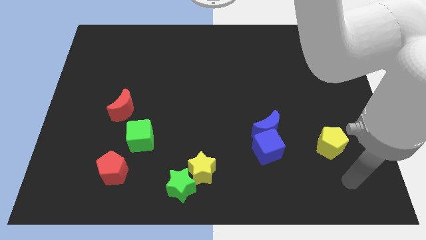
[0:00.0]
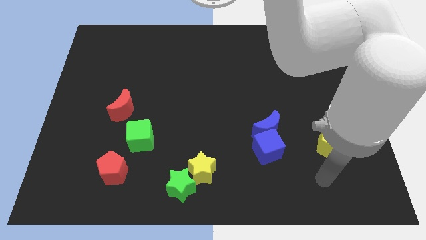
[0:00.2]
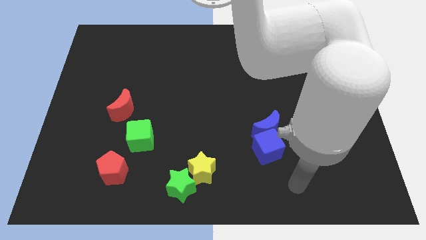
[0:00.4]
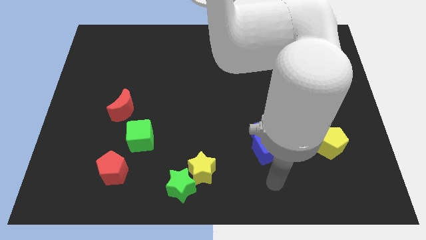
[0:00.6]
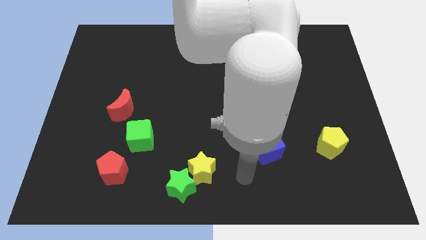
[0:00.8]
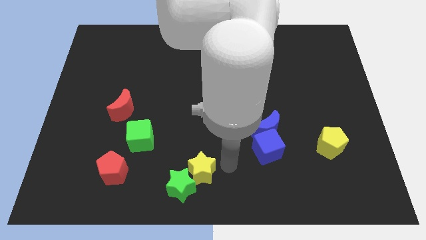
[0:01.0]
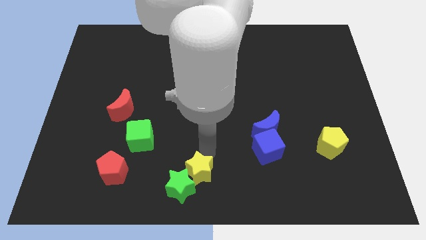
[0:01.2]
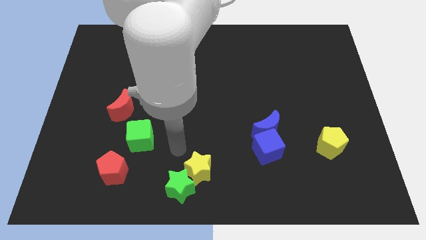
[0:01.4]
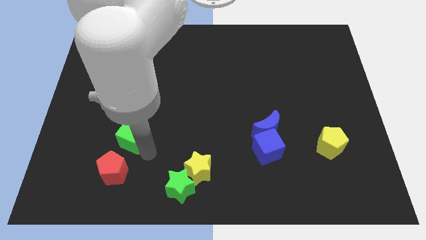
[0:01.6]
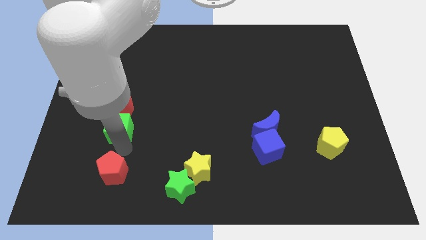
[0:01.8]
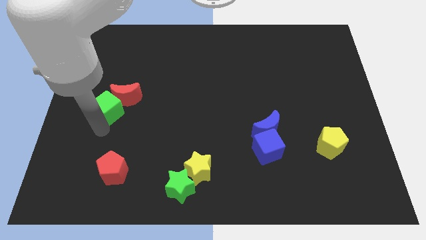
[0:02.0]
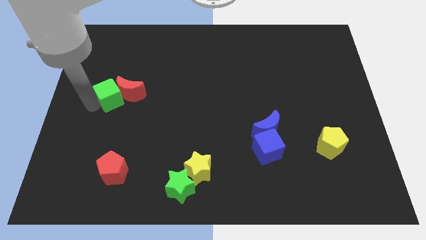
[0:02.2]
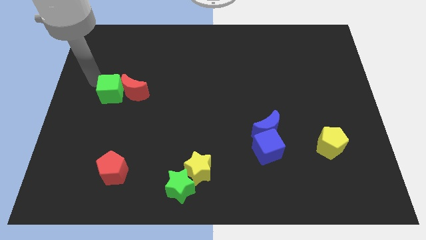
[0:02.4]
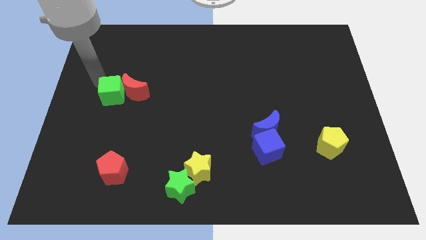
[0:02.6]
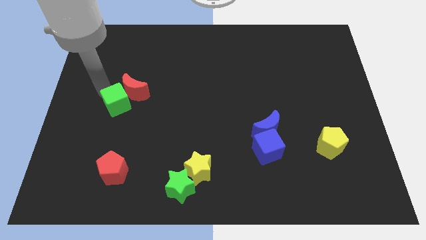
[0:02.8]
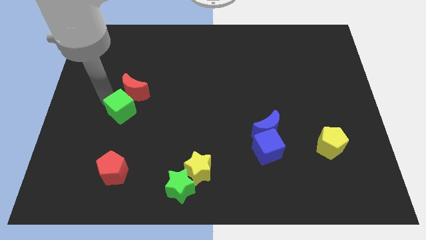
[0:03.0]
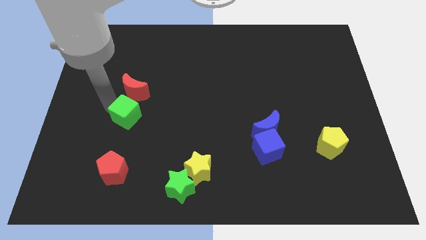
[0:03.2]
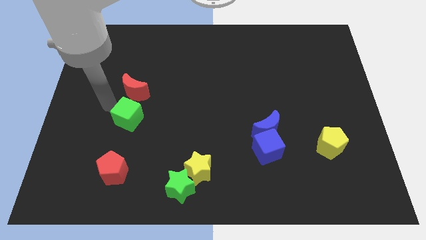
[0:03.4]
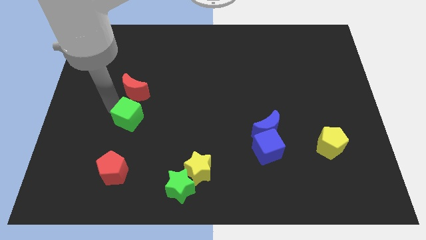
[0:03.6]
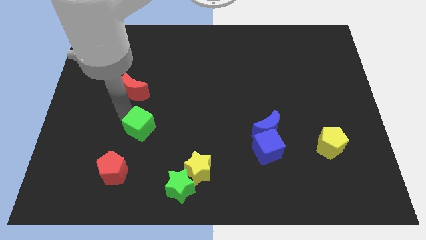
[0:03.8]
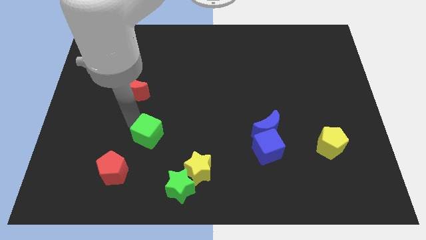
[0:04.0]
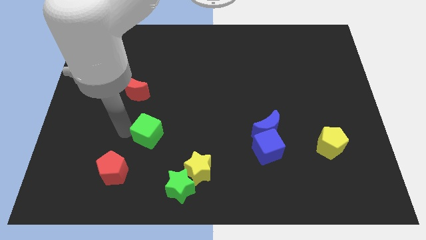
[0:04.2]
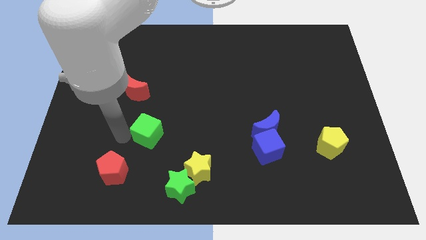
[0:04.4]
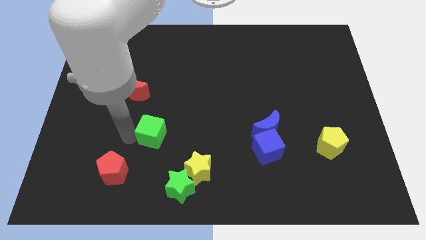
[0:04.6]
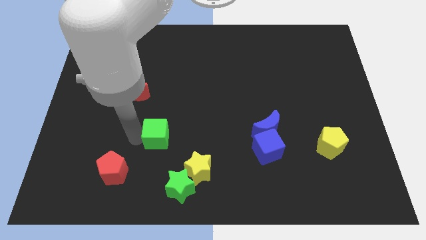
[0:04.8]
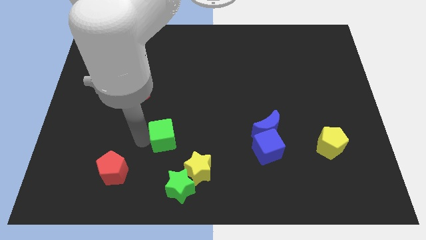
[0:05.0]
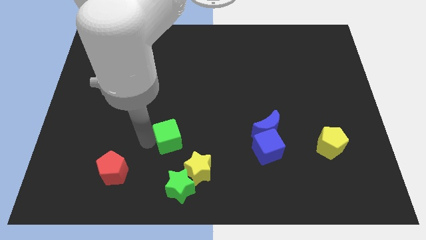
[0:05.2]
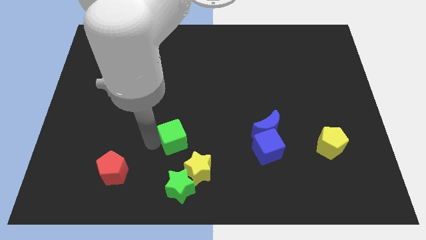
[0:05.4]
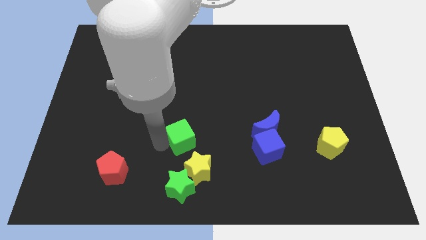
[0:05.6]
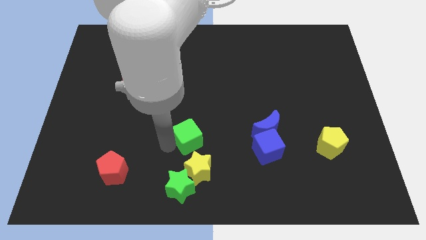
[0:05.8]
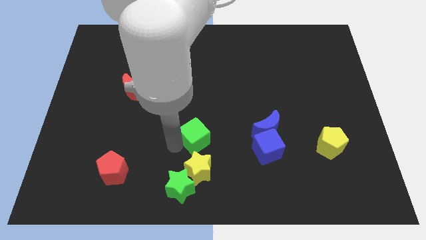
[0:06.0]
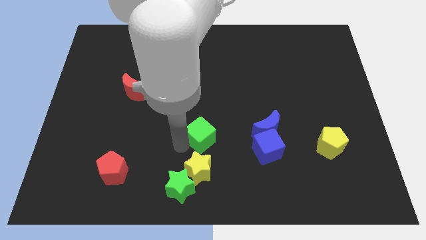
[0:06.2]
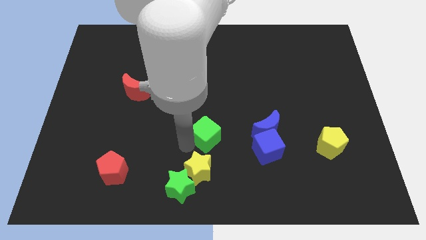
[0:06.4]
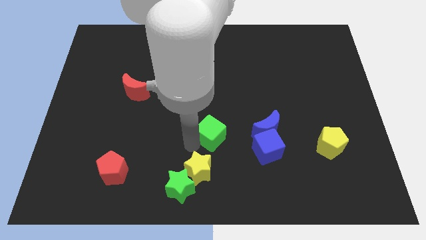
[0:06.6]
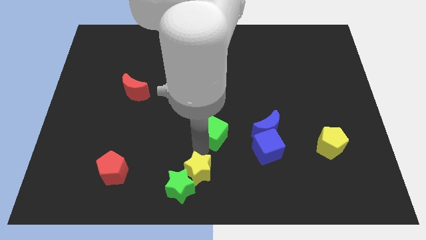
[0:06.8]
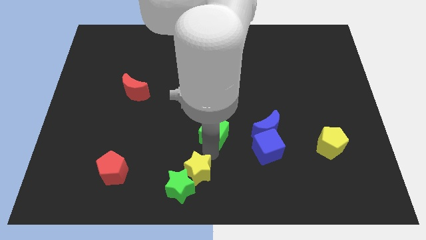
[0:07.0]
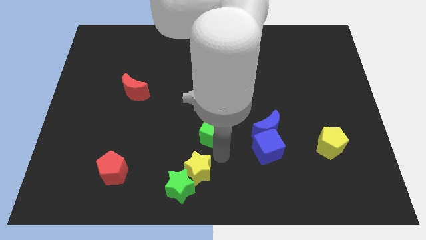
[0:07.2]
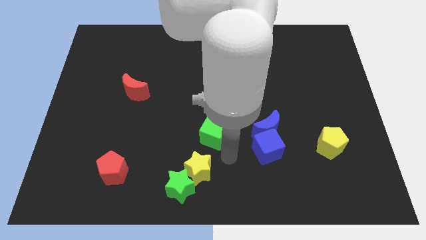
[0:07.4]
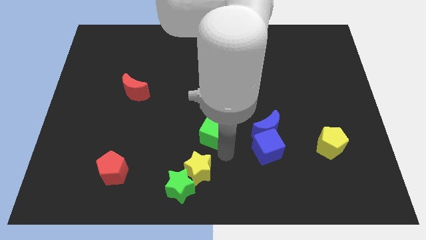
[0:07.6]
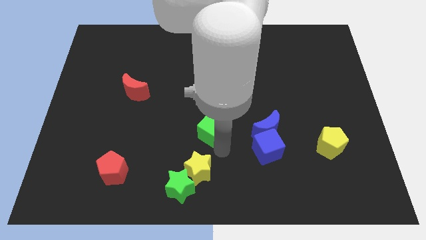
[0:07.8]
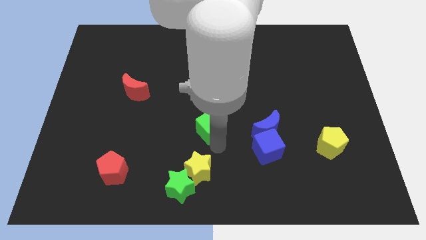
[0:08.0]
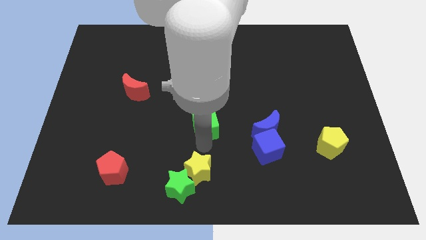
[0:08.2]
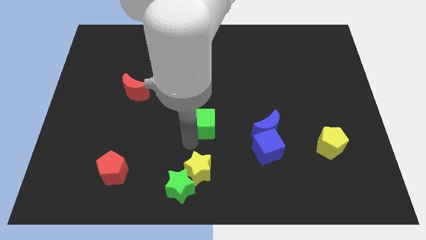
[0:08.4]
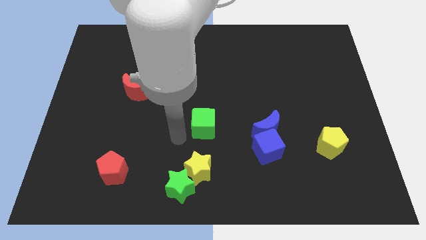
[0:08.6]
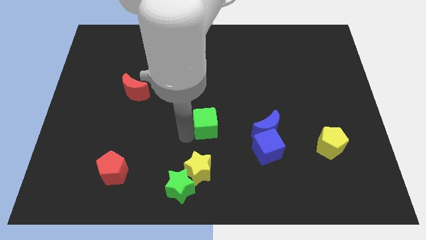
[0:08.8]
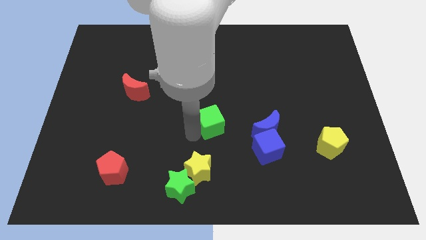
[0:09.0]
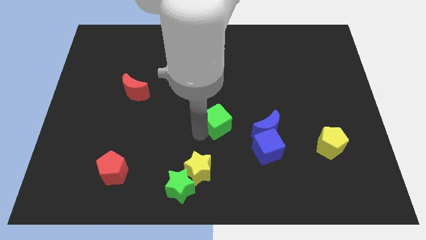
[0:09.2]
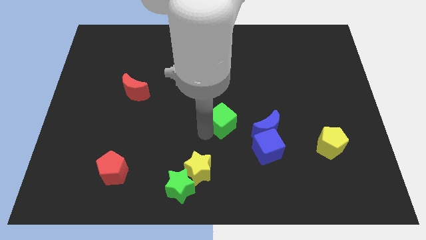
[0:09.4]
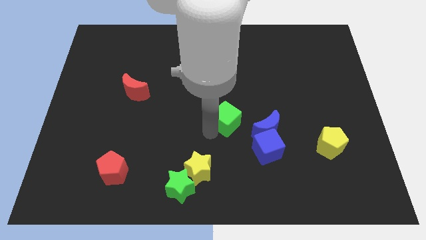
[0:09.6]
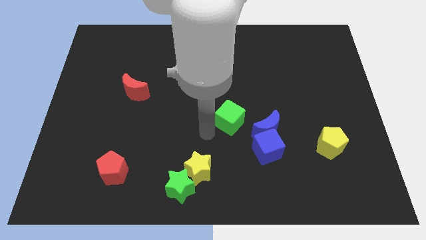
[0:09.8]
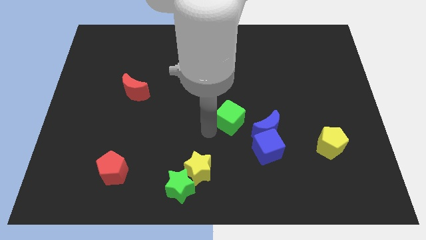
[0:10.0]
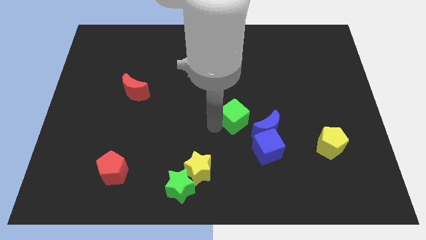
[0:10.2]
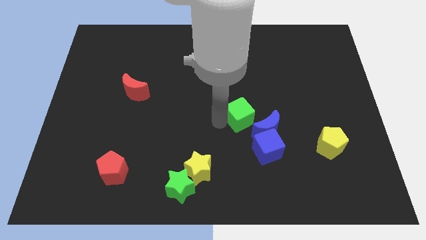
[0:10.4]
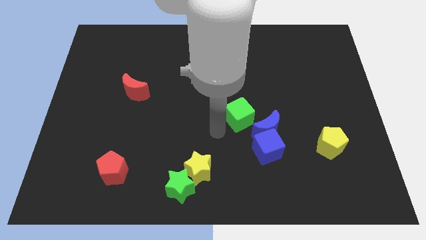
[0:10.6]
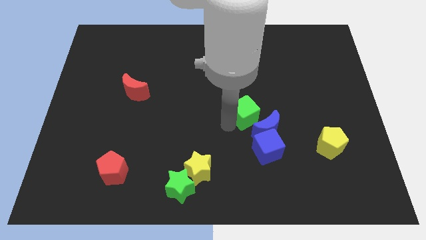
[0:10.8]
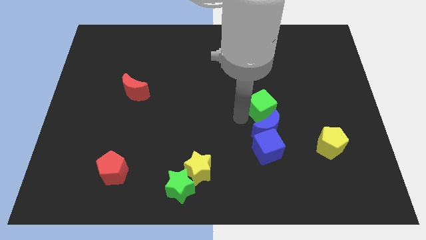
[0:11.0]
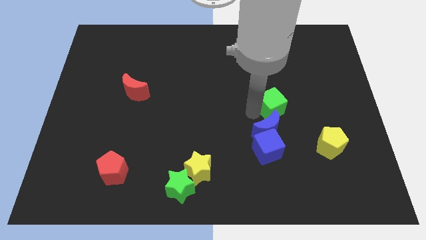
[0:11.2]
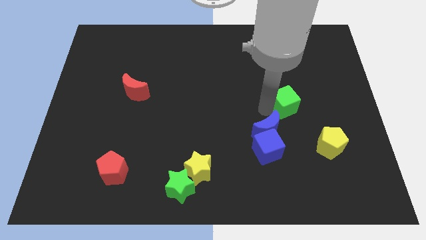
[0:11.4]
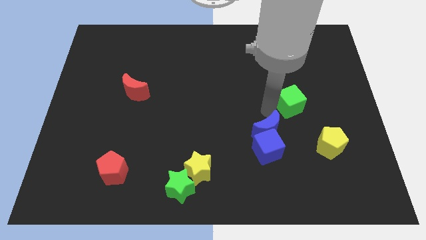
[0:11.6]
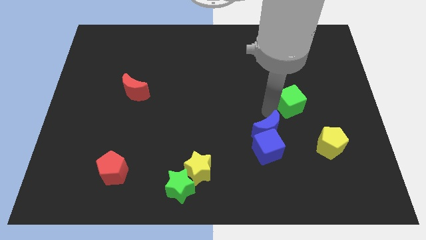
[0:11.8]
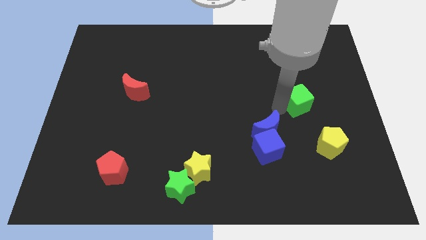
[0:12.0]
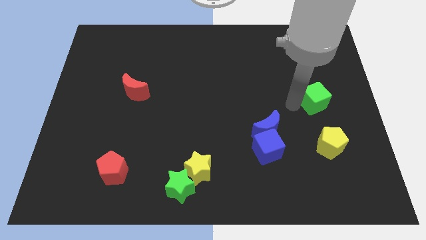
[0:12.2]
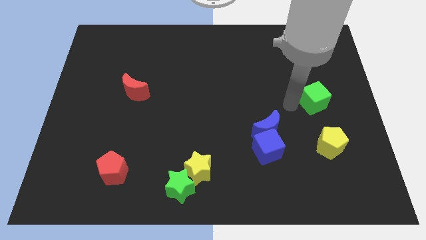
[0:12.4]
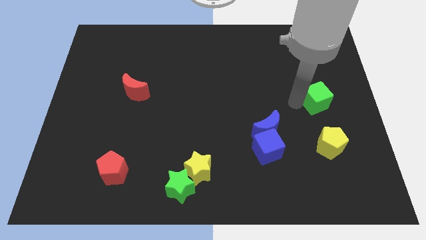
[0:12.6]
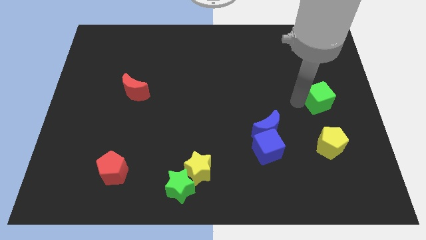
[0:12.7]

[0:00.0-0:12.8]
slide the green cube to the right side of the board
